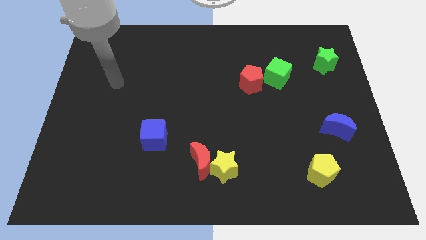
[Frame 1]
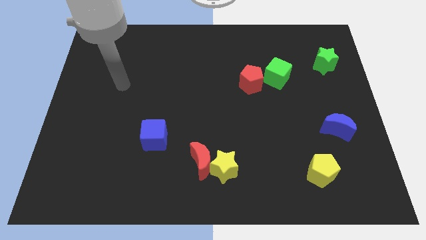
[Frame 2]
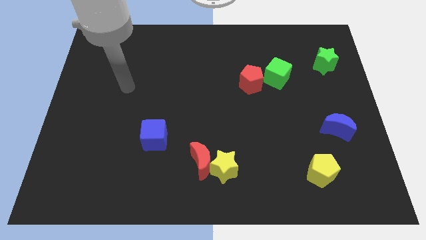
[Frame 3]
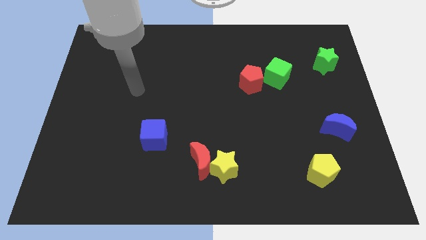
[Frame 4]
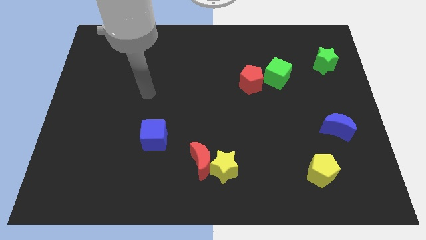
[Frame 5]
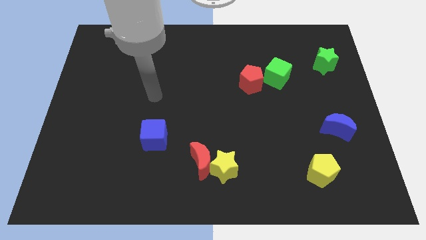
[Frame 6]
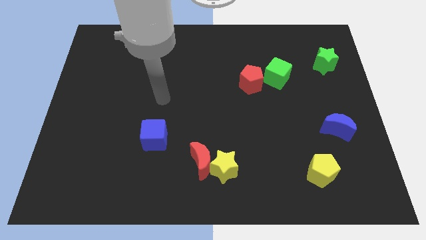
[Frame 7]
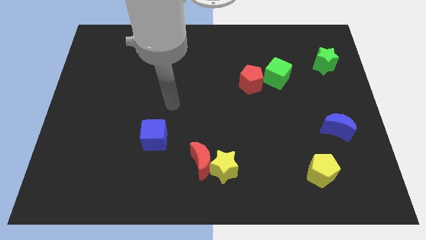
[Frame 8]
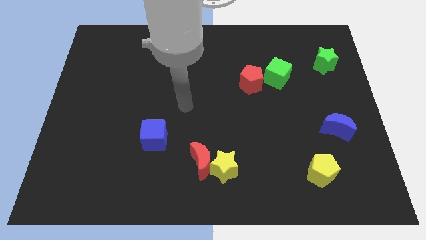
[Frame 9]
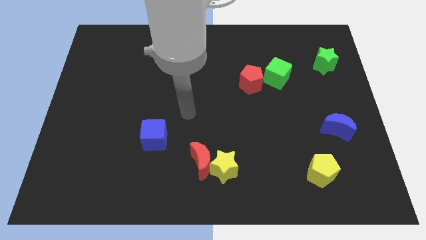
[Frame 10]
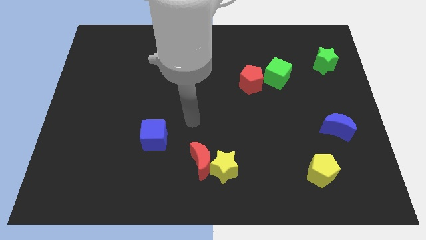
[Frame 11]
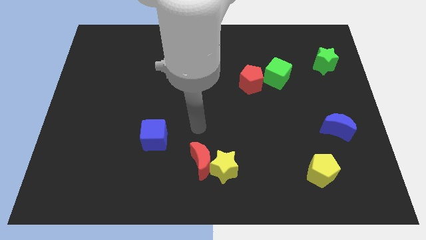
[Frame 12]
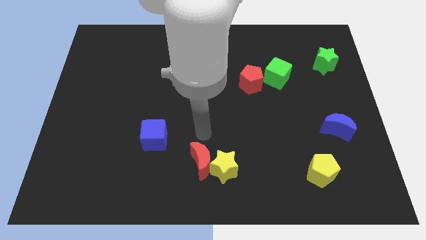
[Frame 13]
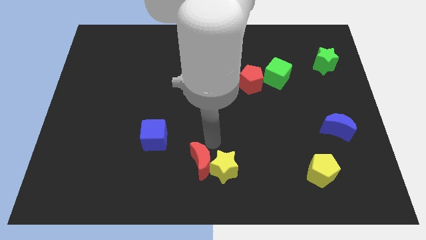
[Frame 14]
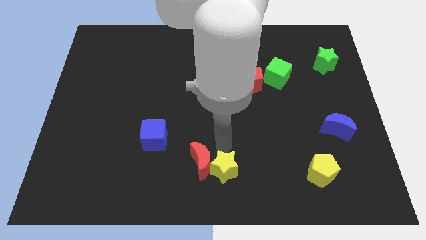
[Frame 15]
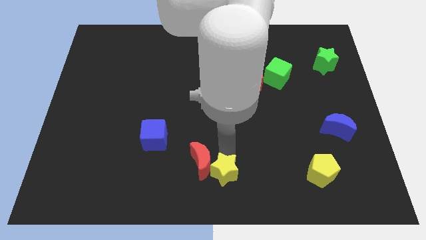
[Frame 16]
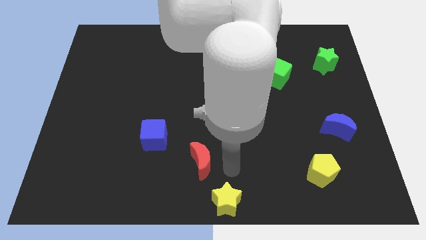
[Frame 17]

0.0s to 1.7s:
move the red moon away from the yellow star

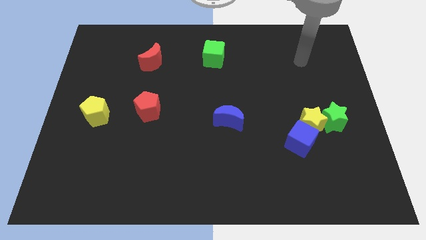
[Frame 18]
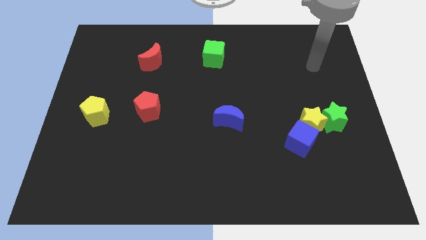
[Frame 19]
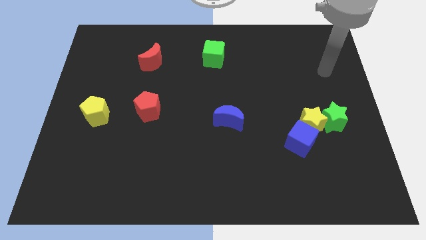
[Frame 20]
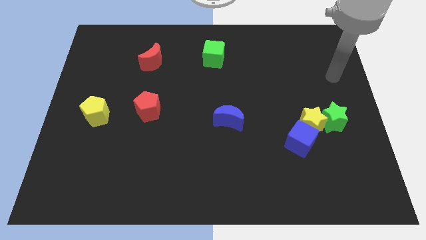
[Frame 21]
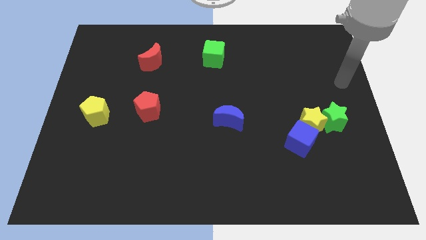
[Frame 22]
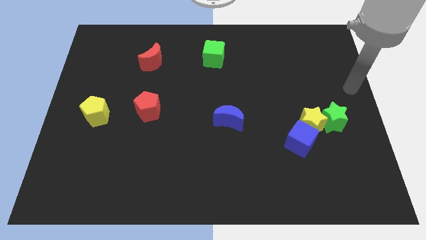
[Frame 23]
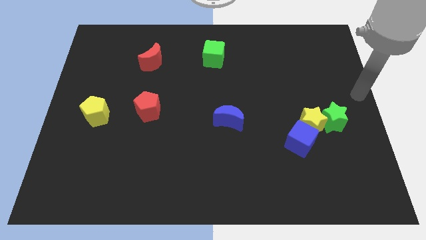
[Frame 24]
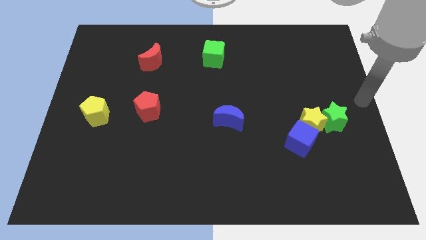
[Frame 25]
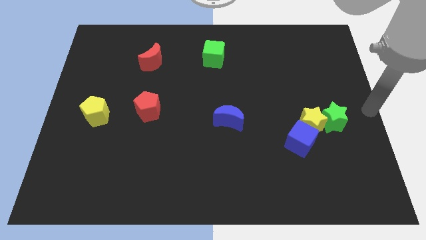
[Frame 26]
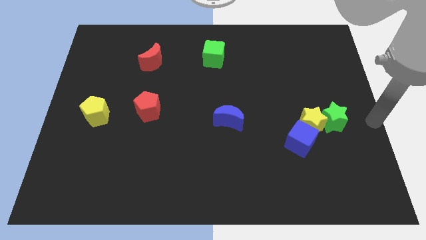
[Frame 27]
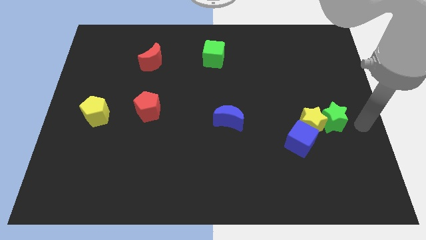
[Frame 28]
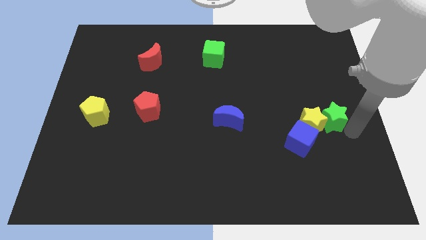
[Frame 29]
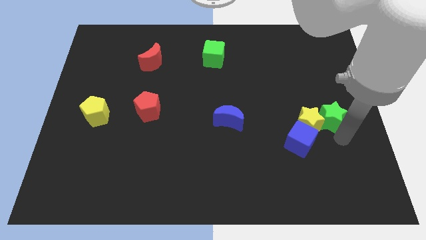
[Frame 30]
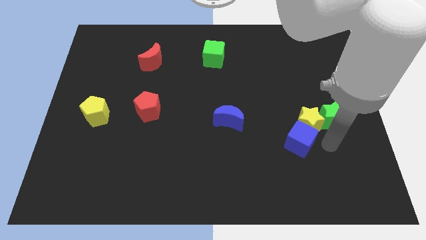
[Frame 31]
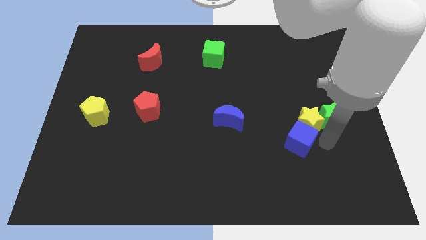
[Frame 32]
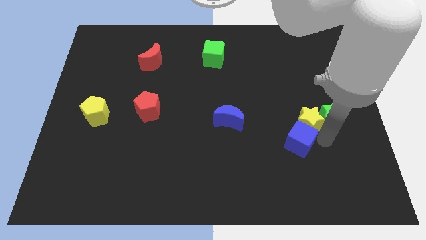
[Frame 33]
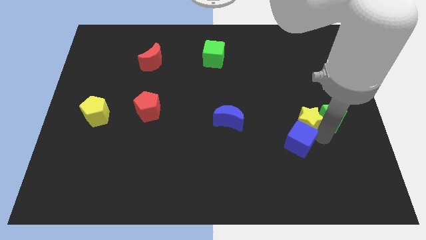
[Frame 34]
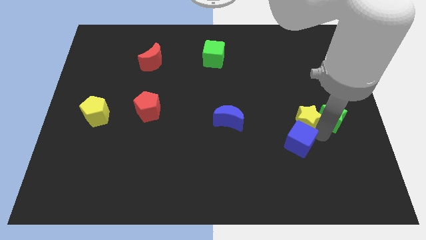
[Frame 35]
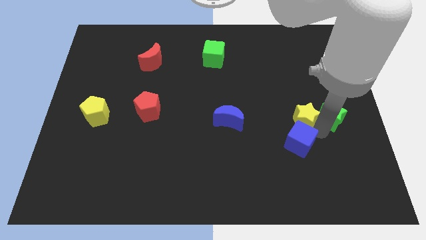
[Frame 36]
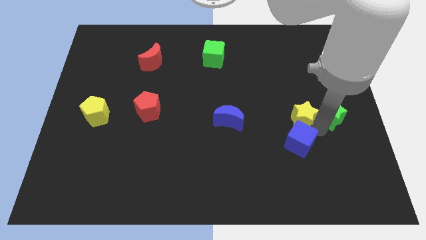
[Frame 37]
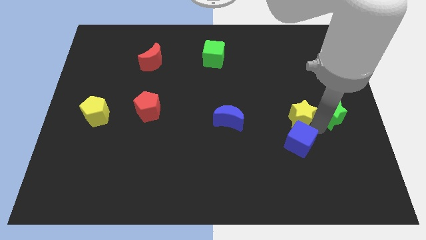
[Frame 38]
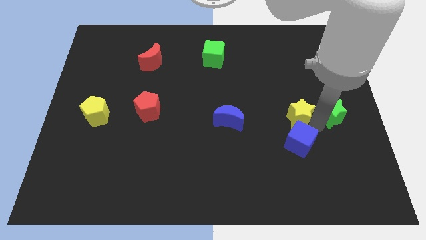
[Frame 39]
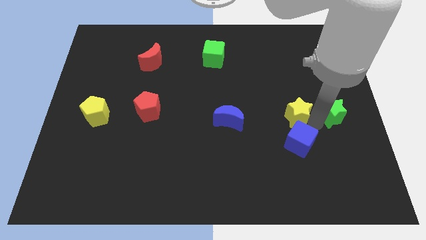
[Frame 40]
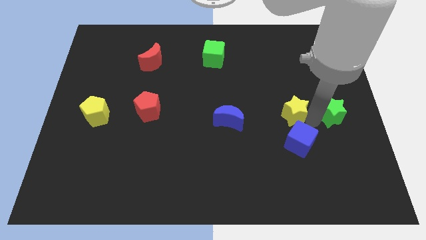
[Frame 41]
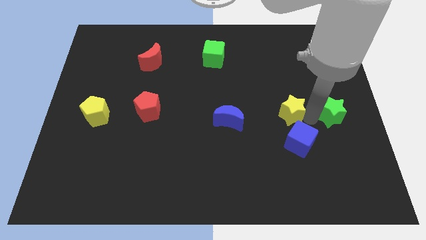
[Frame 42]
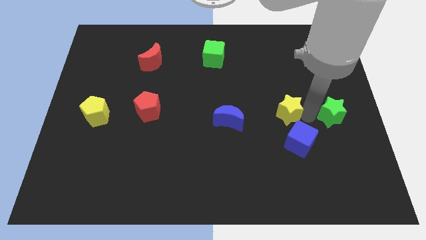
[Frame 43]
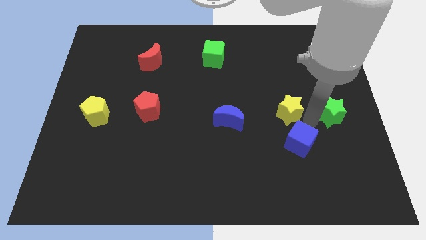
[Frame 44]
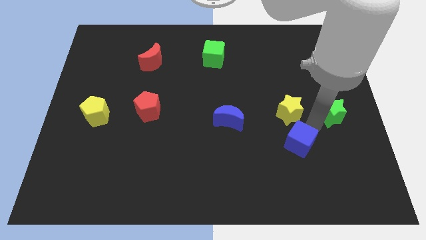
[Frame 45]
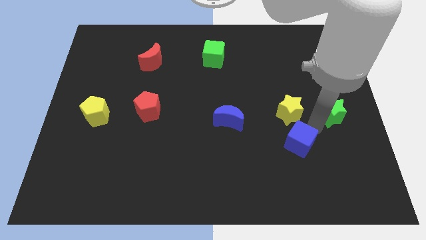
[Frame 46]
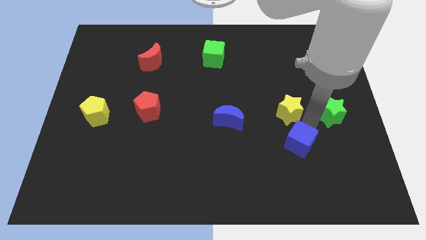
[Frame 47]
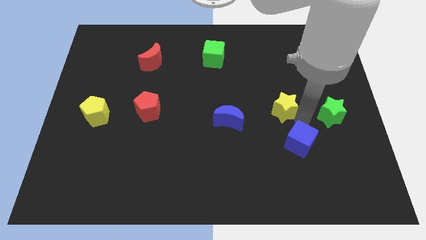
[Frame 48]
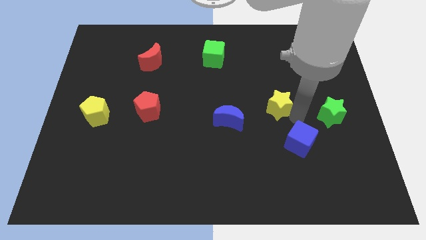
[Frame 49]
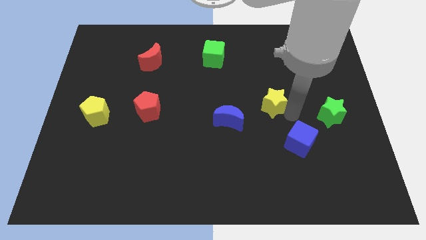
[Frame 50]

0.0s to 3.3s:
separate the yellow star from the blue cube and green star

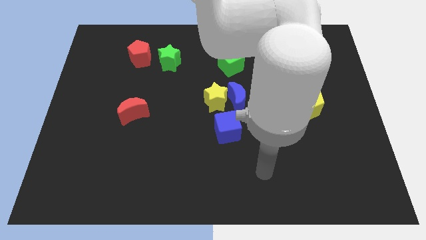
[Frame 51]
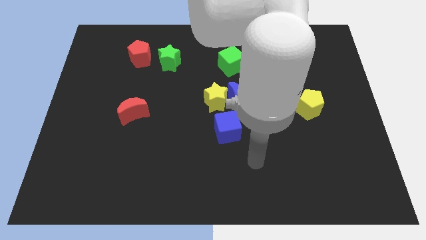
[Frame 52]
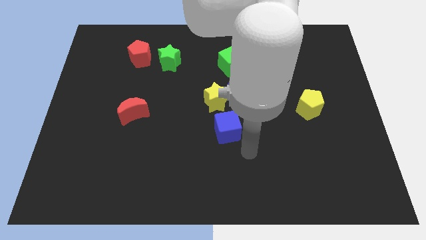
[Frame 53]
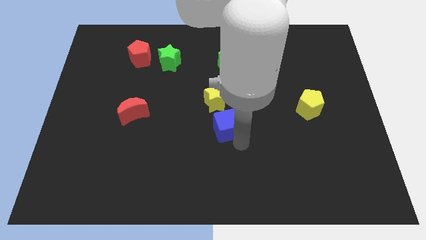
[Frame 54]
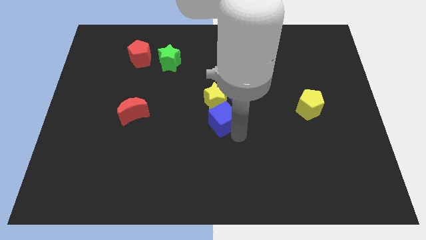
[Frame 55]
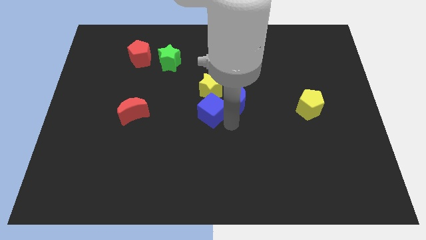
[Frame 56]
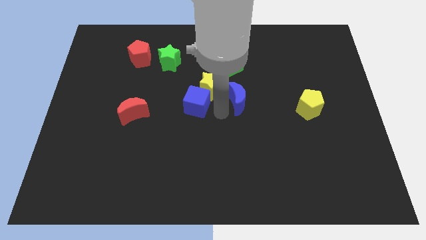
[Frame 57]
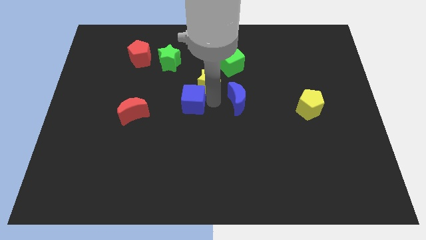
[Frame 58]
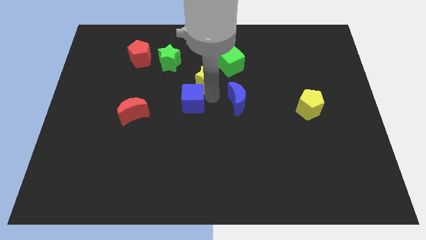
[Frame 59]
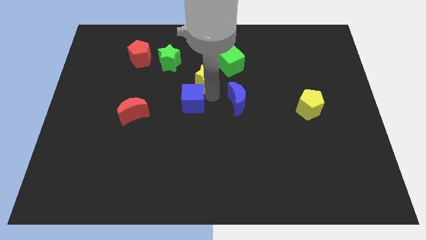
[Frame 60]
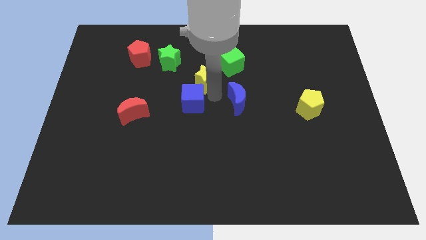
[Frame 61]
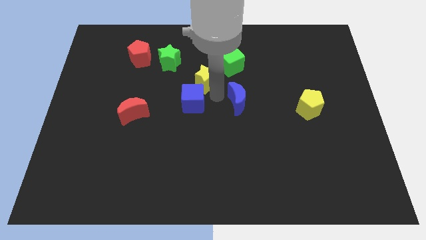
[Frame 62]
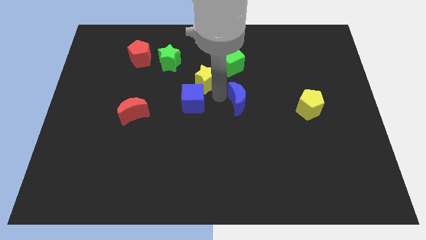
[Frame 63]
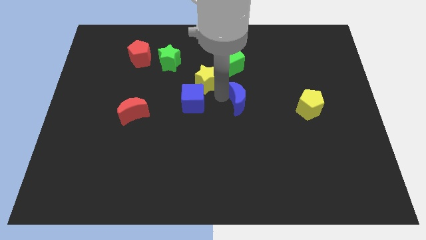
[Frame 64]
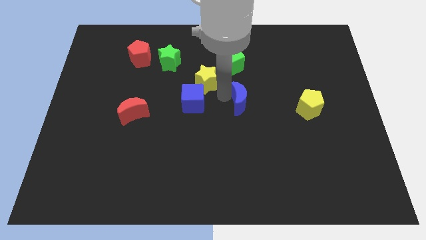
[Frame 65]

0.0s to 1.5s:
separate the blue moon from the yellow star and blue cube

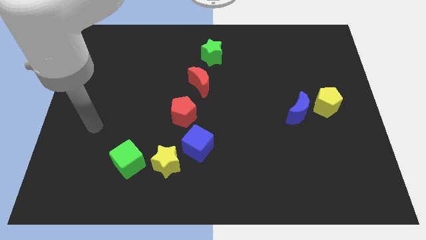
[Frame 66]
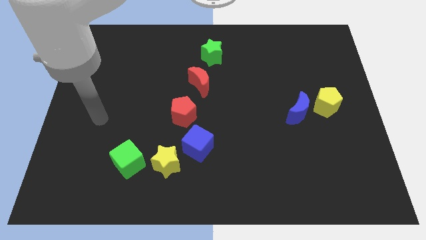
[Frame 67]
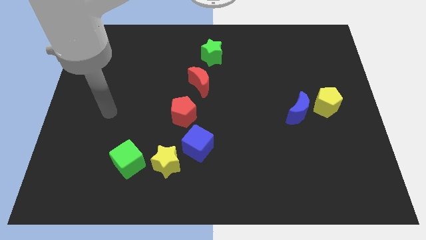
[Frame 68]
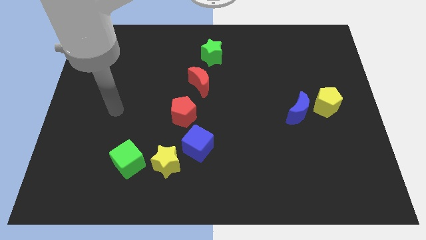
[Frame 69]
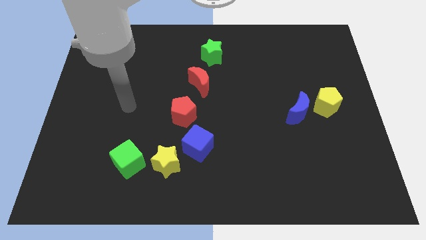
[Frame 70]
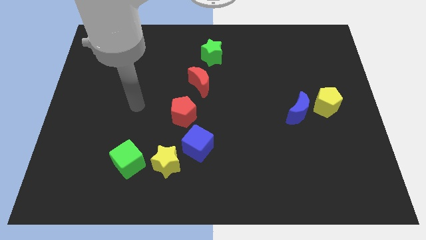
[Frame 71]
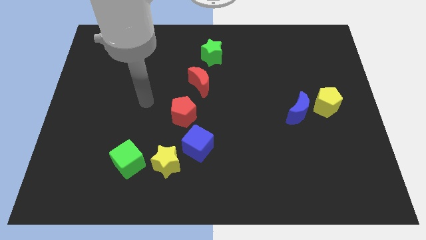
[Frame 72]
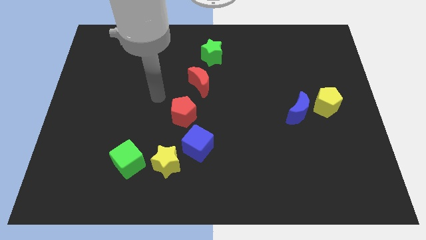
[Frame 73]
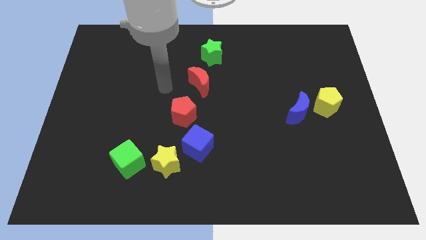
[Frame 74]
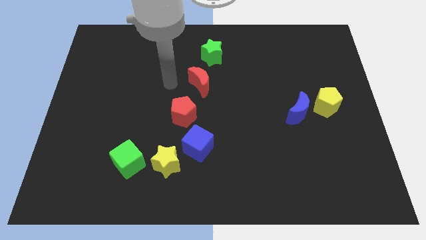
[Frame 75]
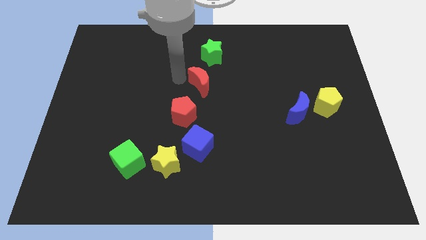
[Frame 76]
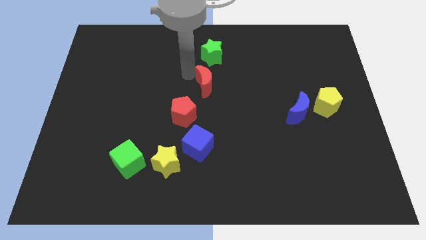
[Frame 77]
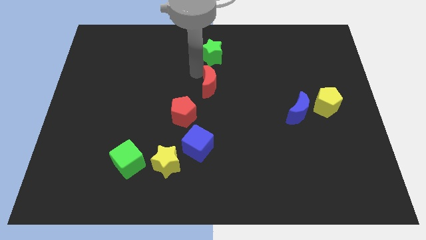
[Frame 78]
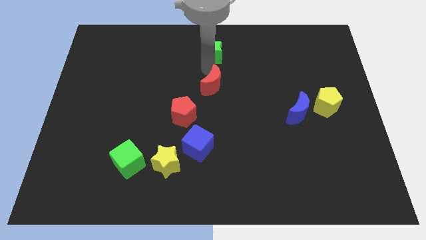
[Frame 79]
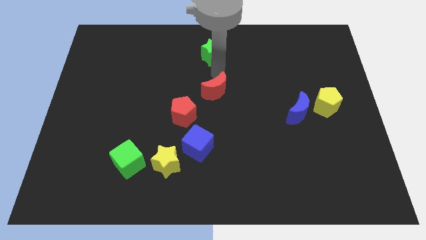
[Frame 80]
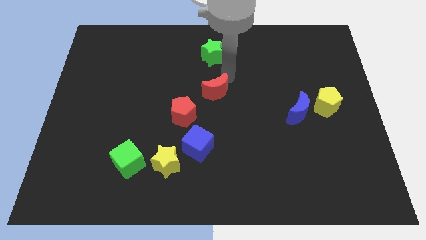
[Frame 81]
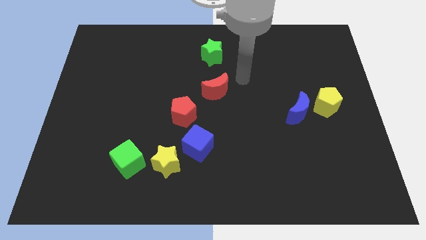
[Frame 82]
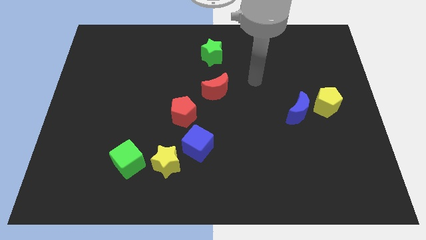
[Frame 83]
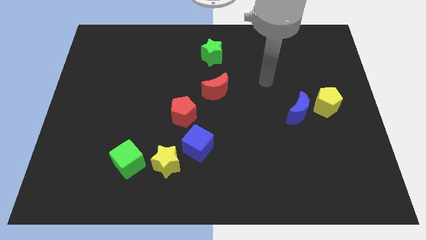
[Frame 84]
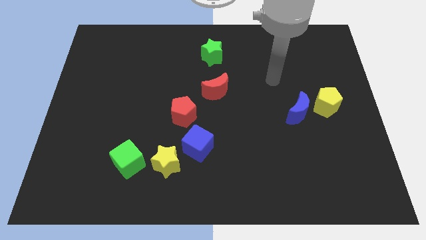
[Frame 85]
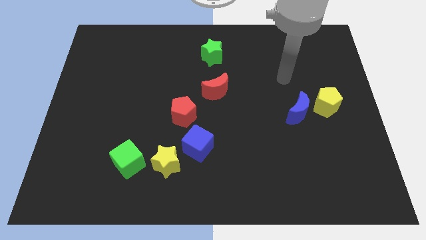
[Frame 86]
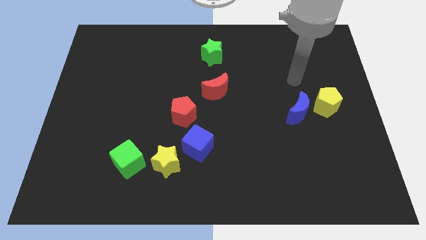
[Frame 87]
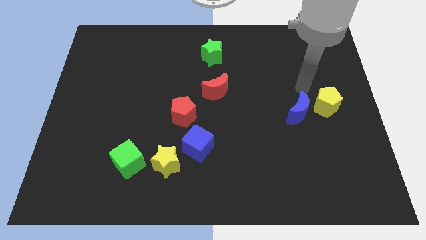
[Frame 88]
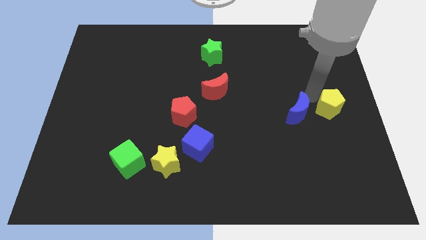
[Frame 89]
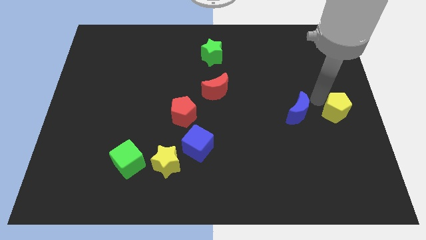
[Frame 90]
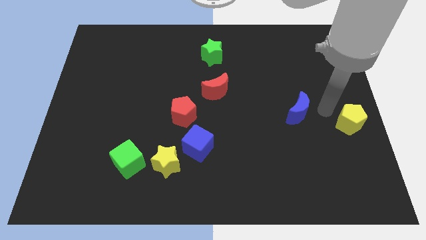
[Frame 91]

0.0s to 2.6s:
move the blue moon away from the yellow pentagon

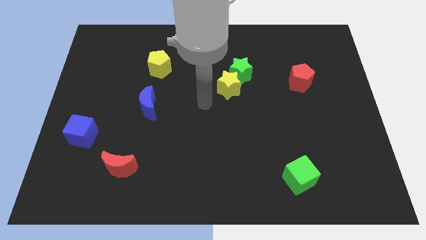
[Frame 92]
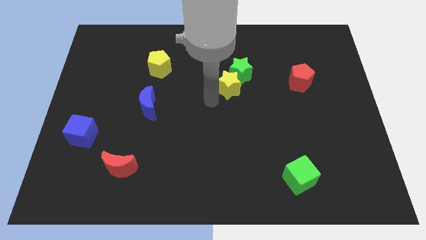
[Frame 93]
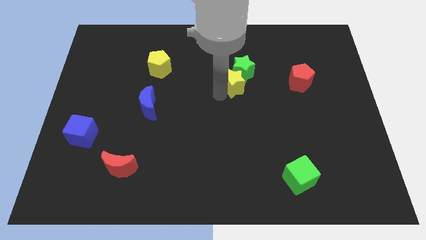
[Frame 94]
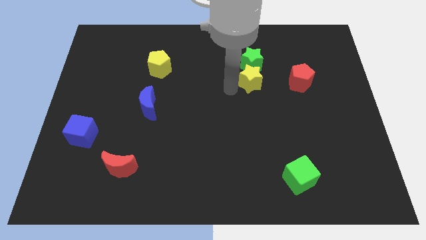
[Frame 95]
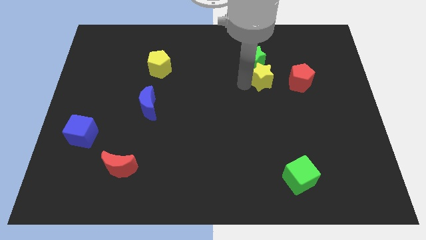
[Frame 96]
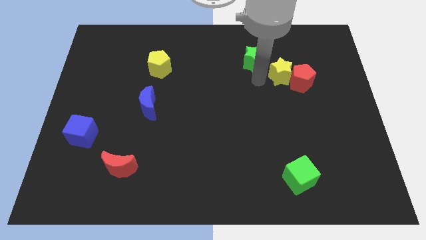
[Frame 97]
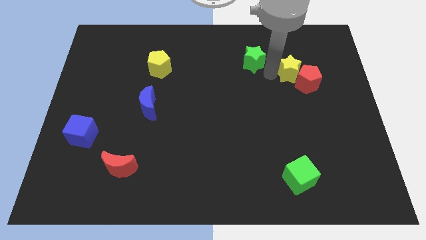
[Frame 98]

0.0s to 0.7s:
move the green star away from the yellow star
